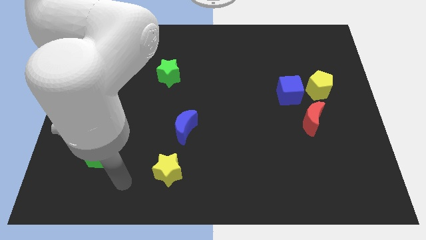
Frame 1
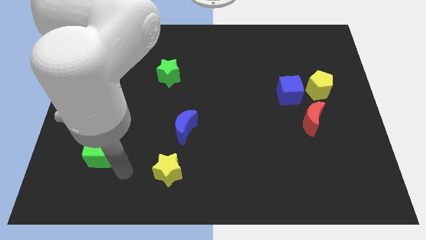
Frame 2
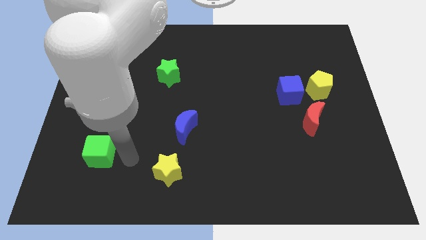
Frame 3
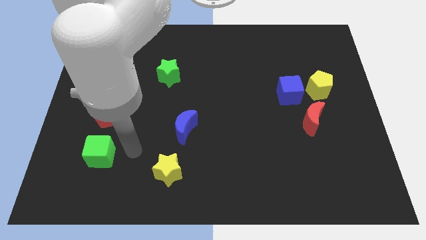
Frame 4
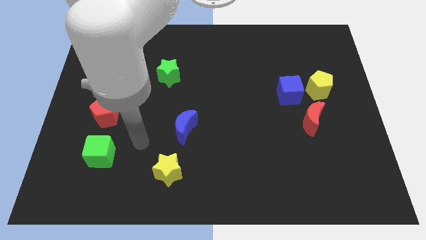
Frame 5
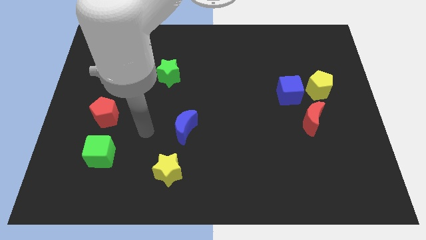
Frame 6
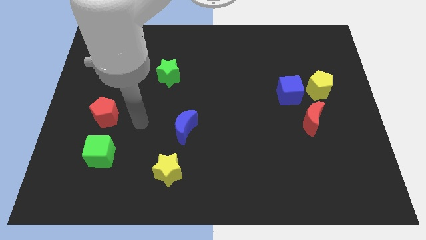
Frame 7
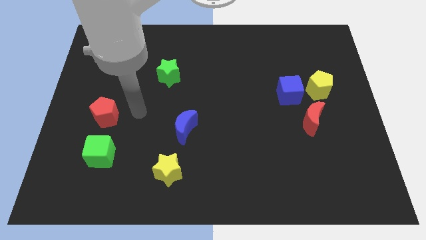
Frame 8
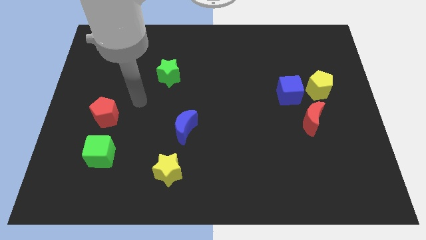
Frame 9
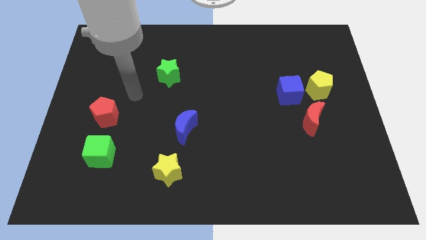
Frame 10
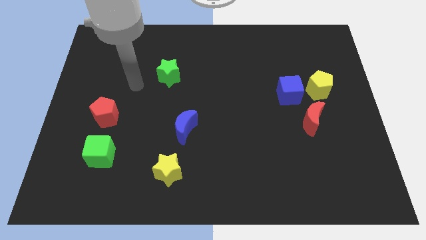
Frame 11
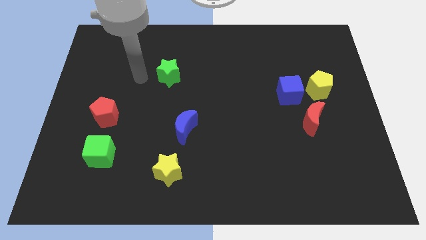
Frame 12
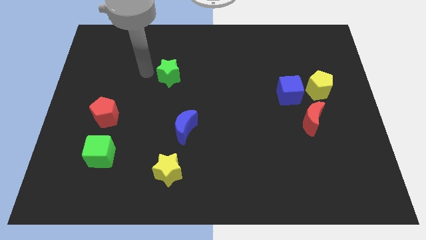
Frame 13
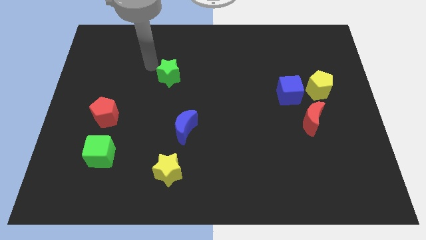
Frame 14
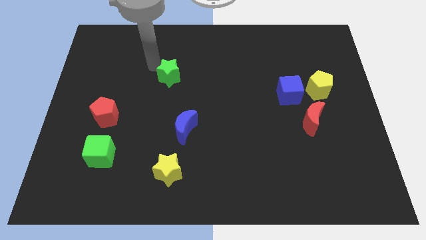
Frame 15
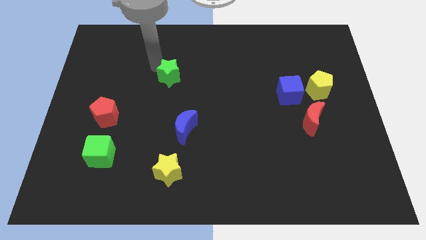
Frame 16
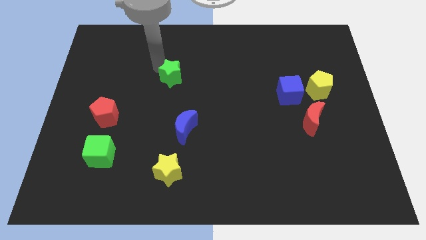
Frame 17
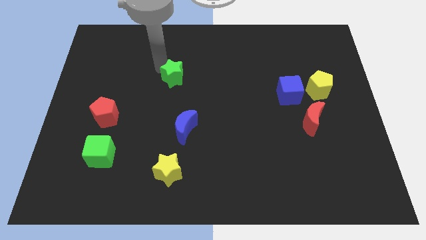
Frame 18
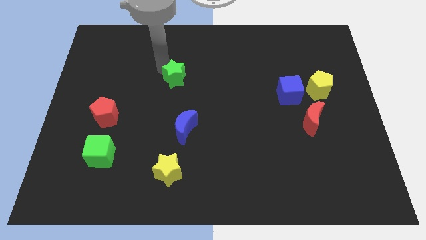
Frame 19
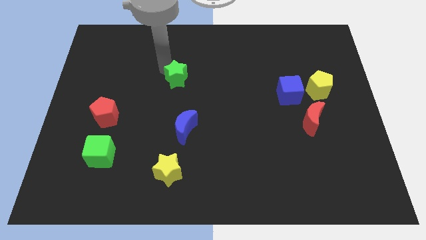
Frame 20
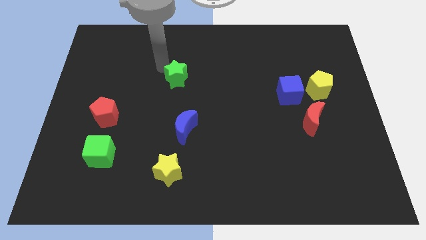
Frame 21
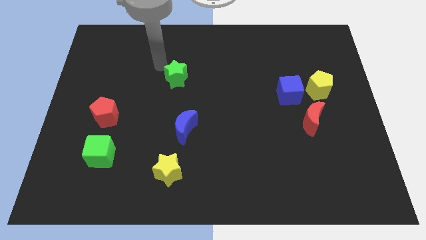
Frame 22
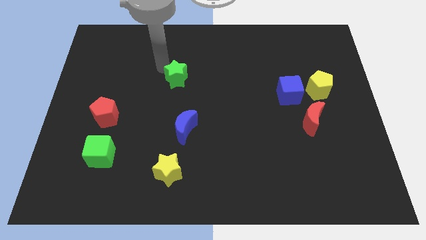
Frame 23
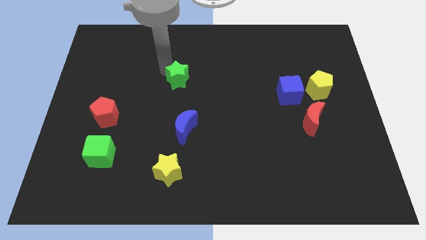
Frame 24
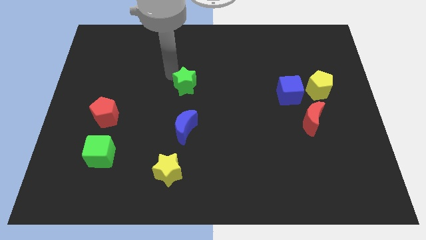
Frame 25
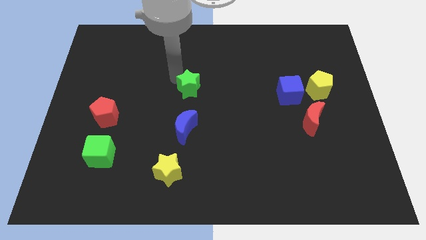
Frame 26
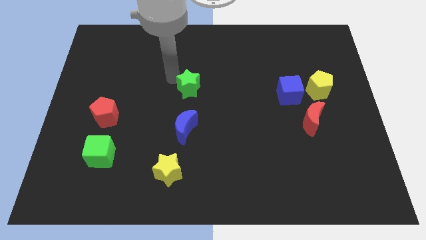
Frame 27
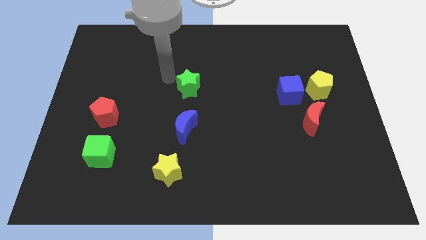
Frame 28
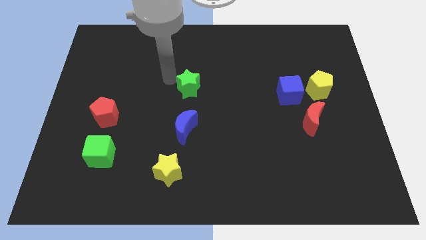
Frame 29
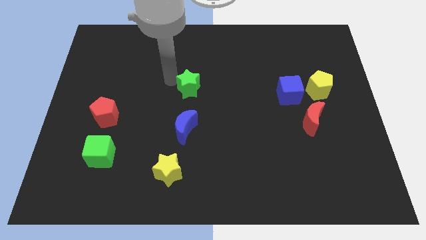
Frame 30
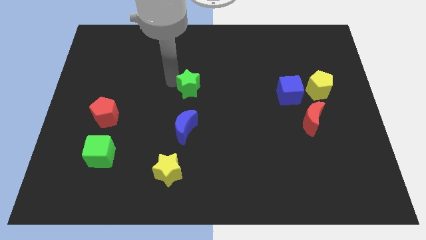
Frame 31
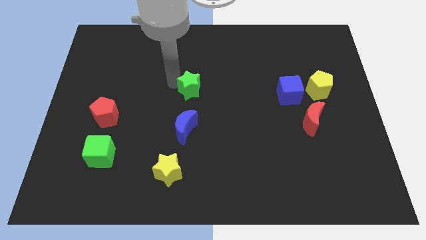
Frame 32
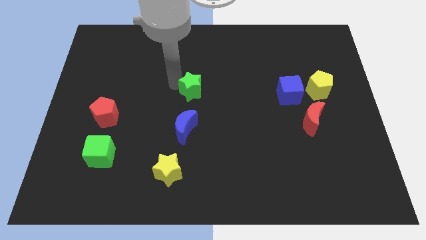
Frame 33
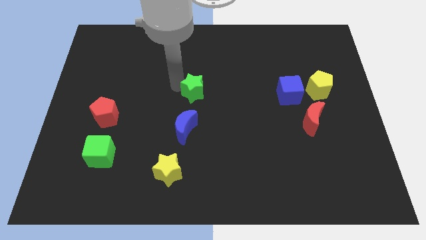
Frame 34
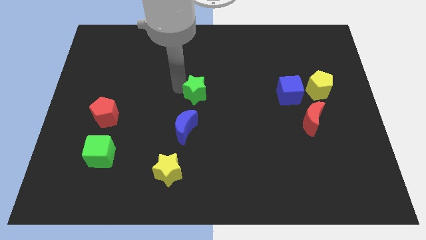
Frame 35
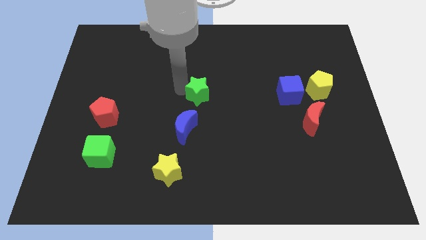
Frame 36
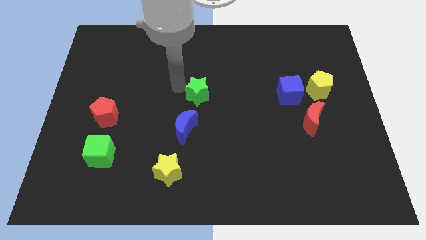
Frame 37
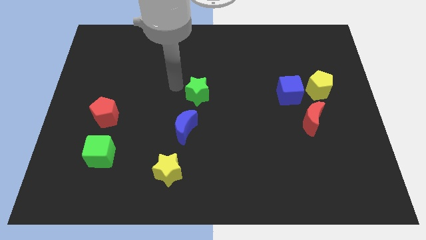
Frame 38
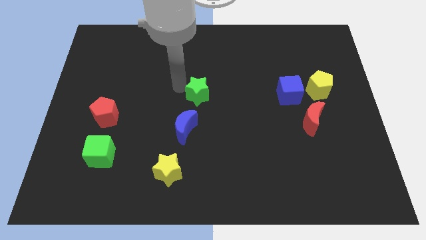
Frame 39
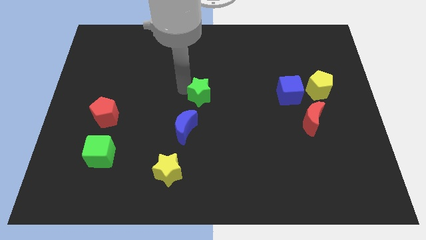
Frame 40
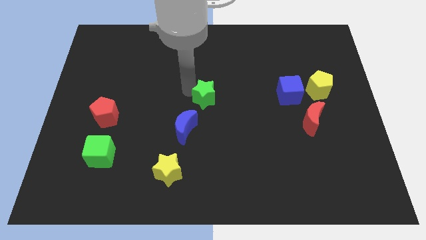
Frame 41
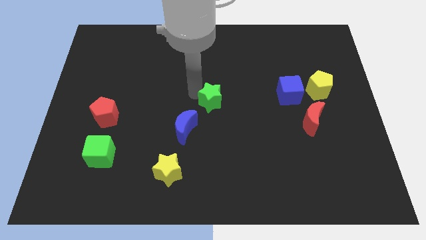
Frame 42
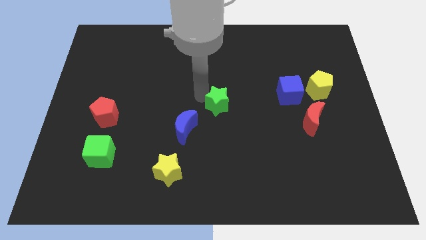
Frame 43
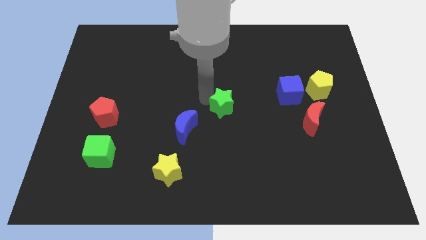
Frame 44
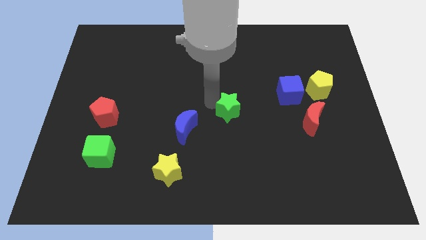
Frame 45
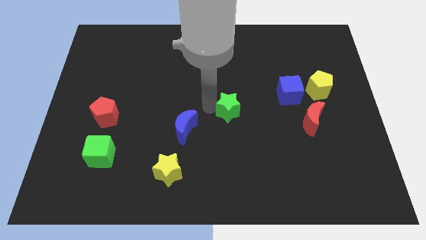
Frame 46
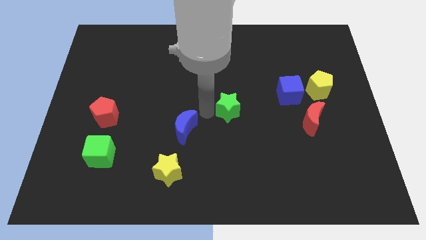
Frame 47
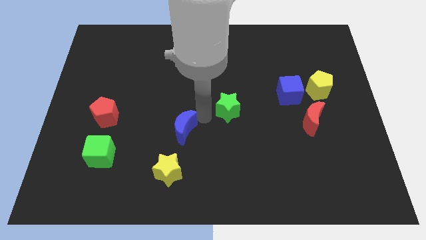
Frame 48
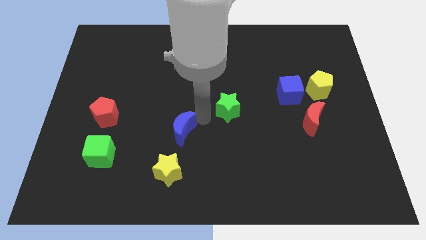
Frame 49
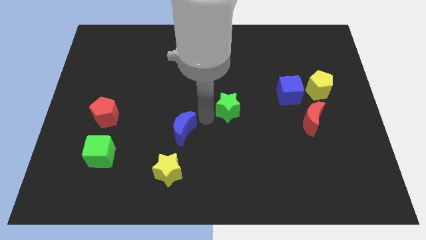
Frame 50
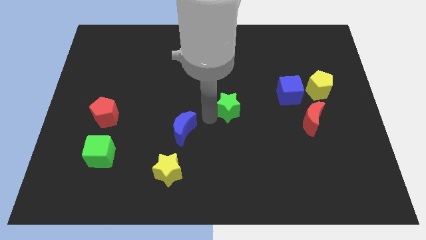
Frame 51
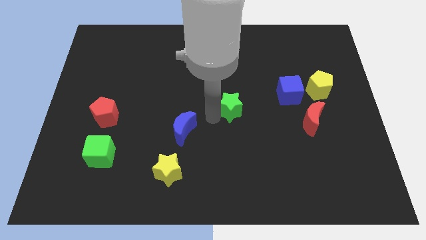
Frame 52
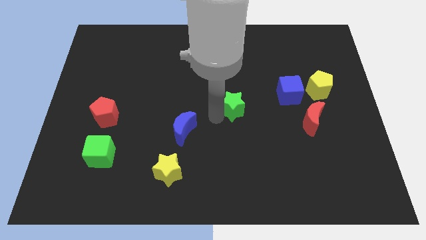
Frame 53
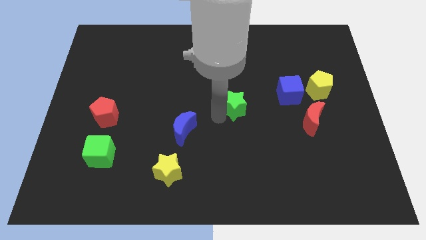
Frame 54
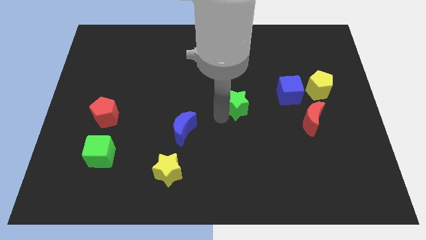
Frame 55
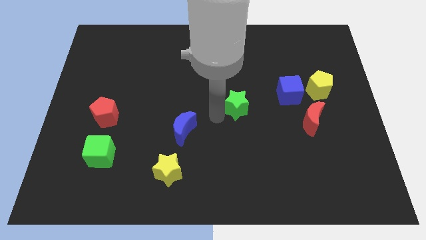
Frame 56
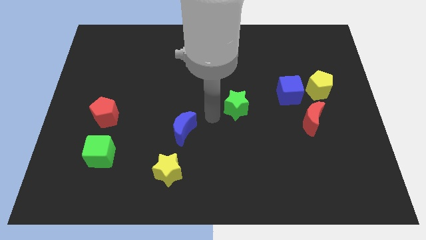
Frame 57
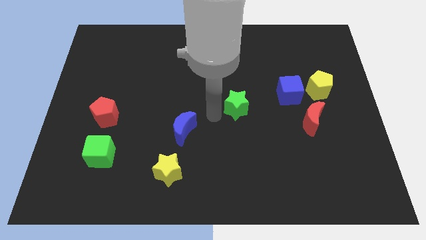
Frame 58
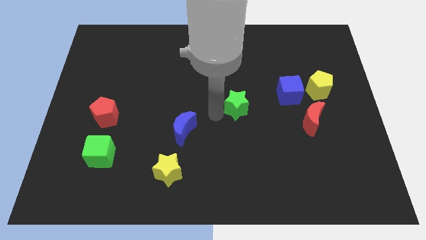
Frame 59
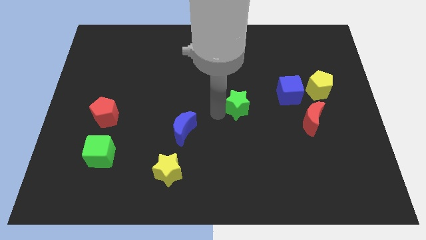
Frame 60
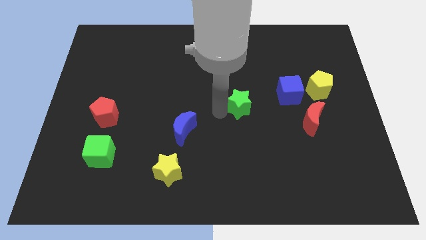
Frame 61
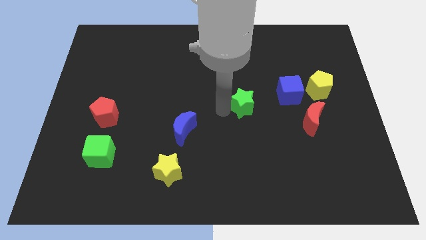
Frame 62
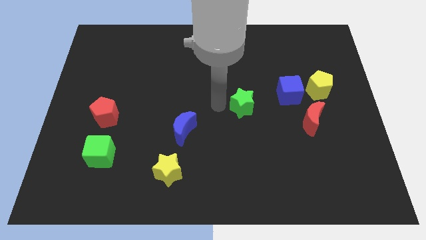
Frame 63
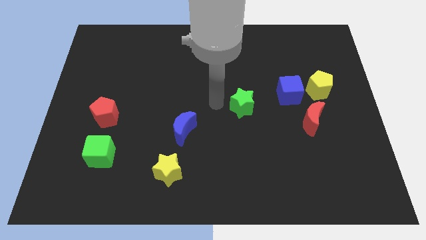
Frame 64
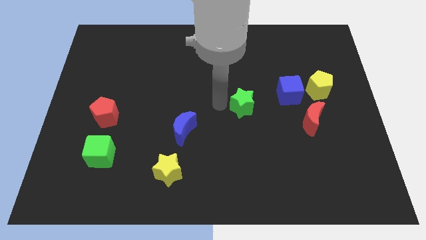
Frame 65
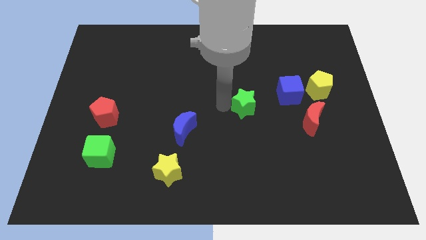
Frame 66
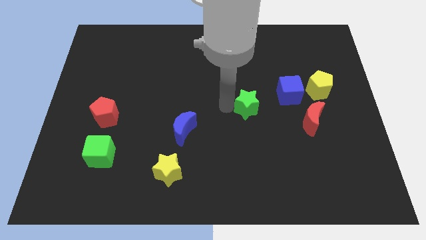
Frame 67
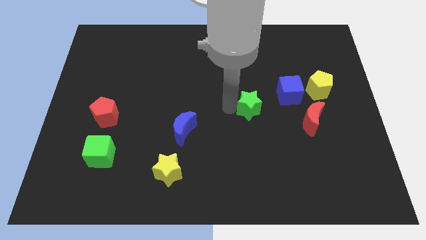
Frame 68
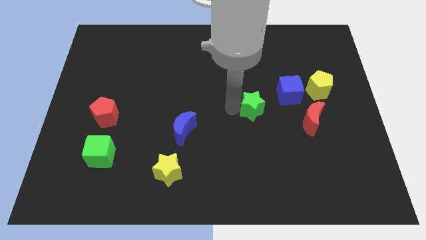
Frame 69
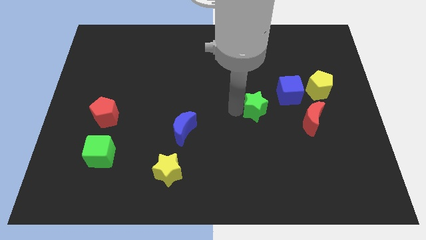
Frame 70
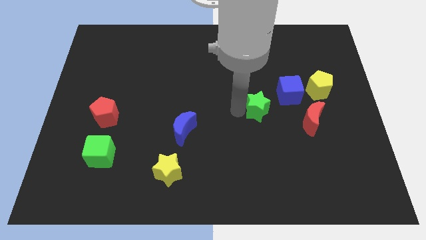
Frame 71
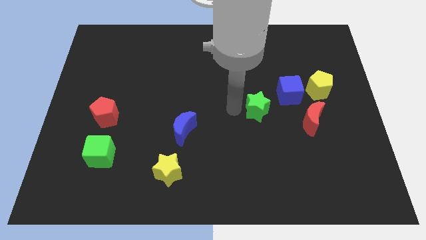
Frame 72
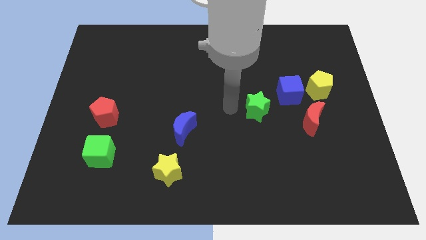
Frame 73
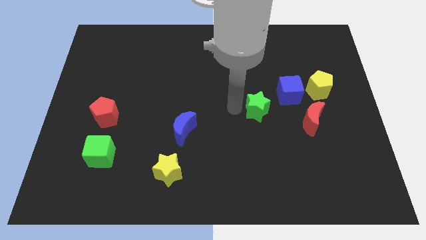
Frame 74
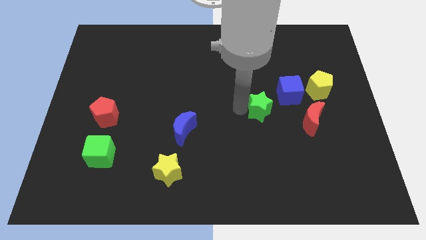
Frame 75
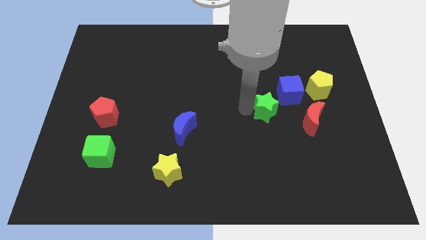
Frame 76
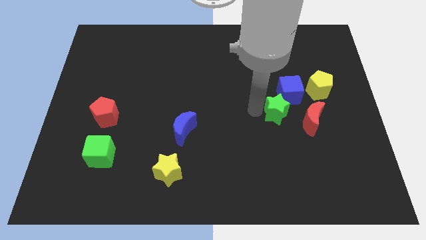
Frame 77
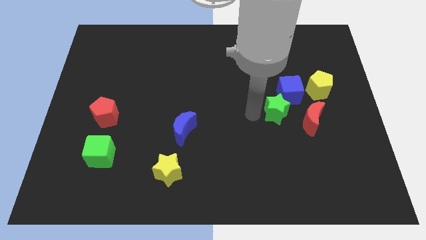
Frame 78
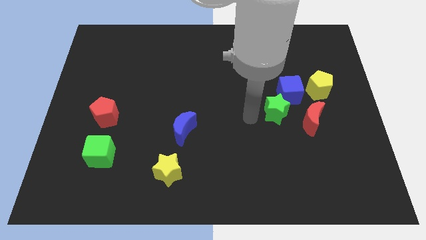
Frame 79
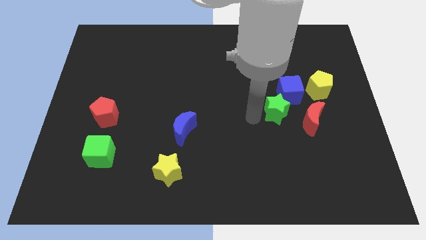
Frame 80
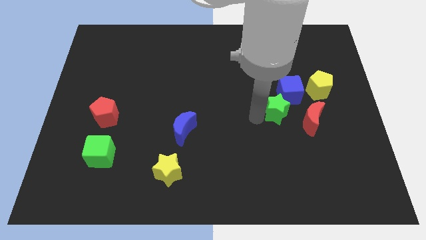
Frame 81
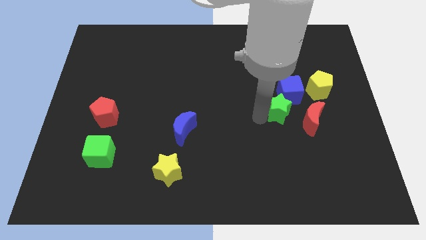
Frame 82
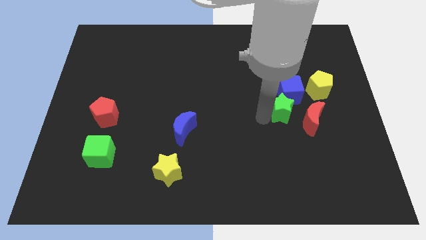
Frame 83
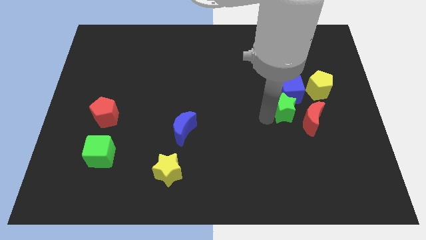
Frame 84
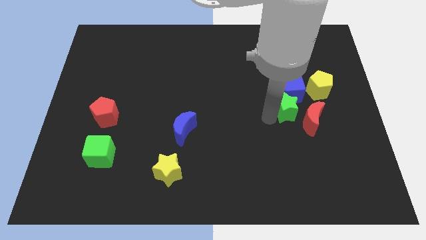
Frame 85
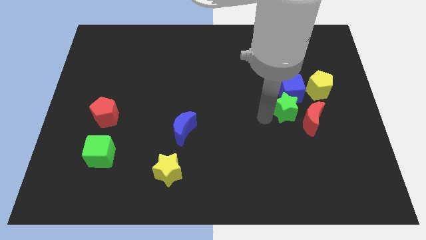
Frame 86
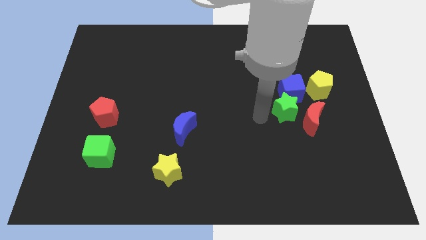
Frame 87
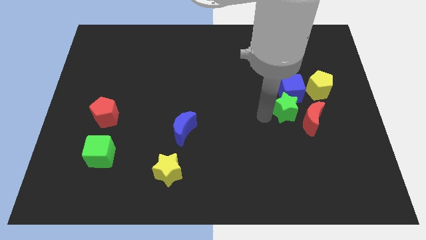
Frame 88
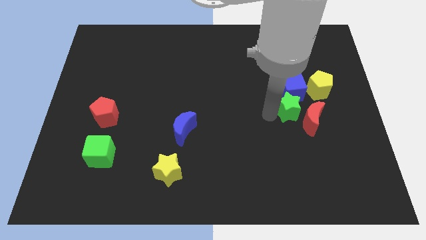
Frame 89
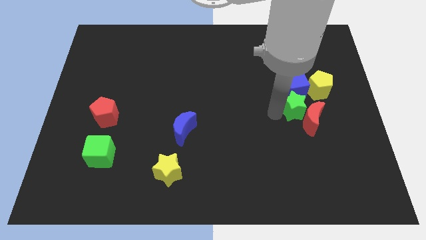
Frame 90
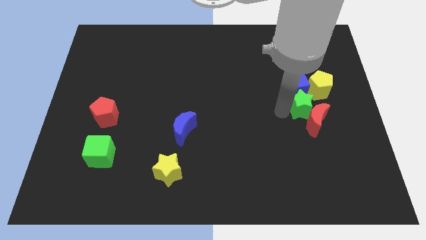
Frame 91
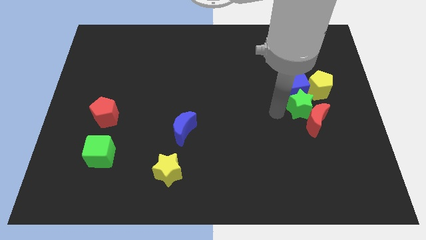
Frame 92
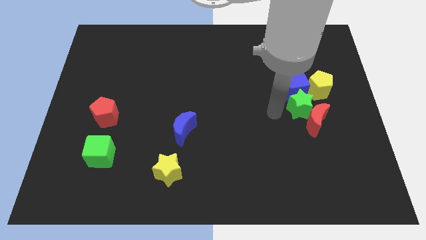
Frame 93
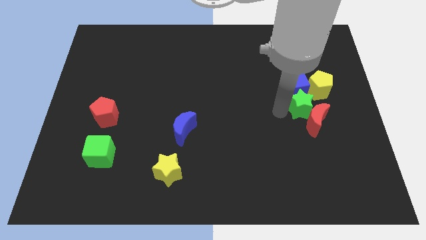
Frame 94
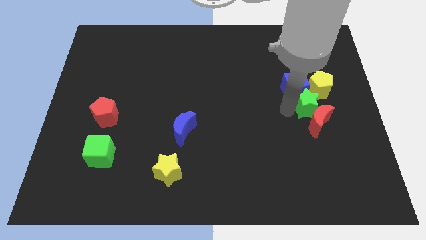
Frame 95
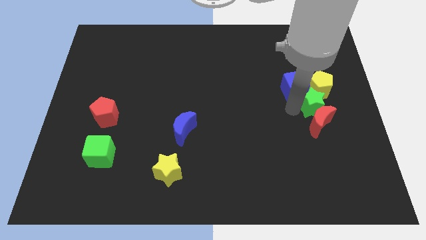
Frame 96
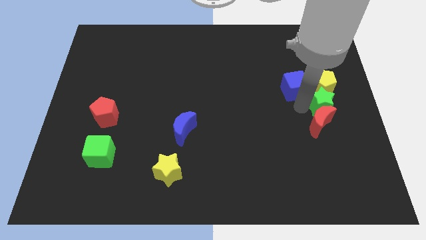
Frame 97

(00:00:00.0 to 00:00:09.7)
put the green star to the center right
